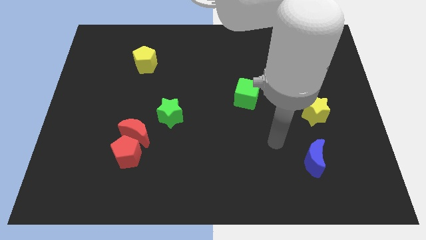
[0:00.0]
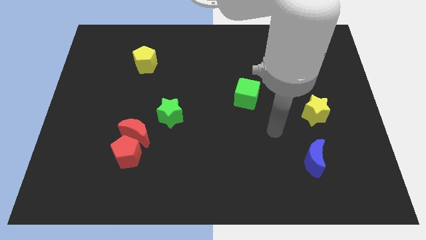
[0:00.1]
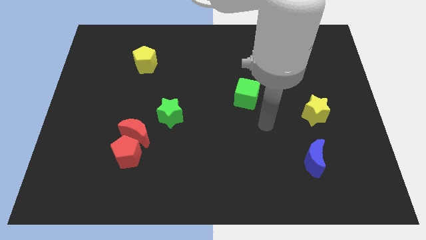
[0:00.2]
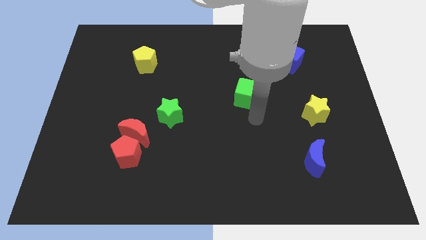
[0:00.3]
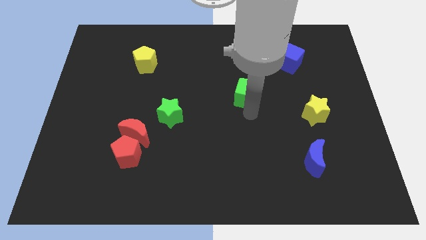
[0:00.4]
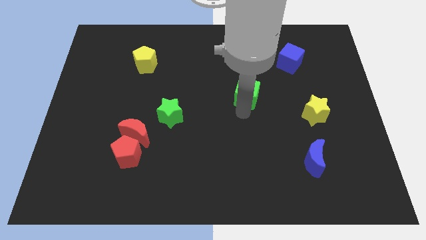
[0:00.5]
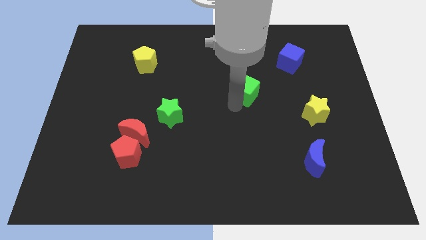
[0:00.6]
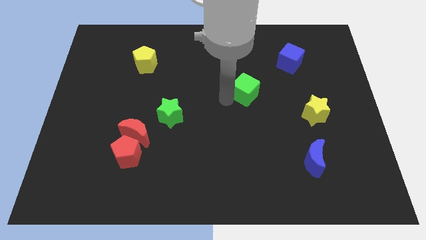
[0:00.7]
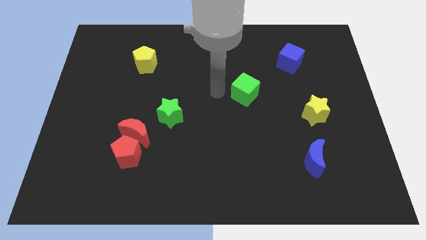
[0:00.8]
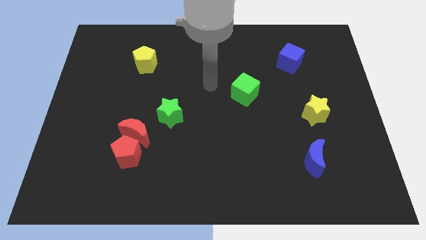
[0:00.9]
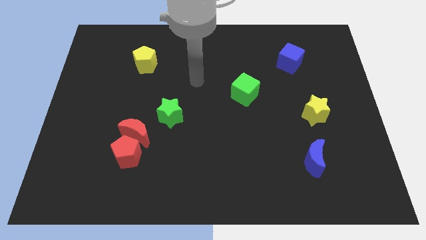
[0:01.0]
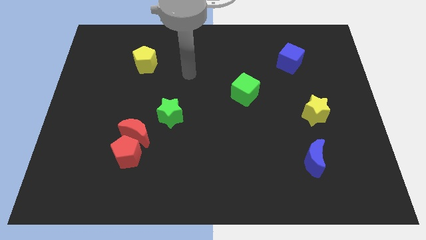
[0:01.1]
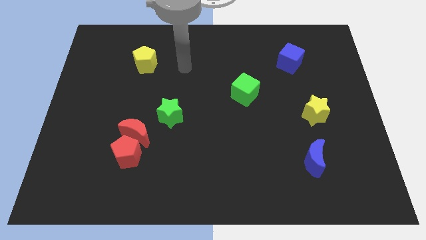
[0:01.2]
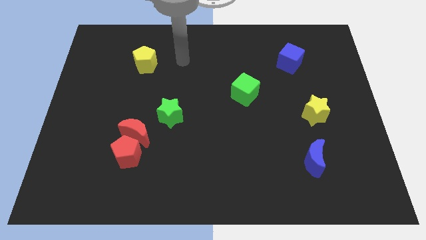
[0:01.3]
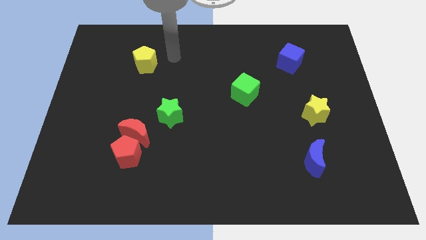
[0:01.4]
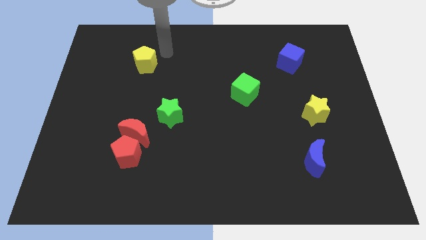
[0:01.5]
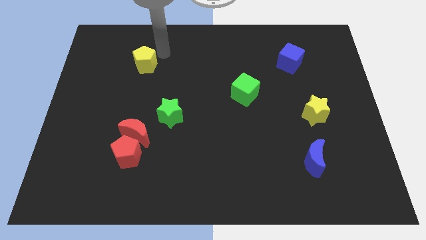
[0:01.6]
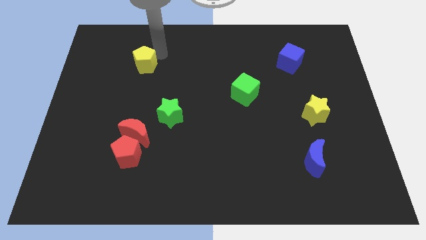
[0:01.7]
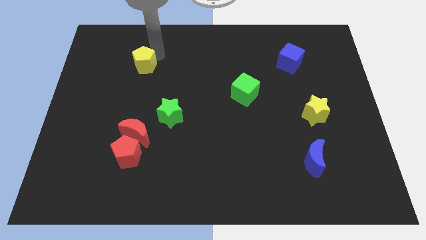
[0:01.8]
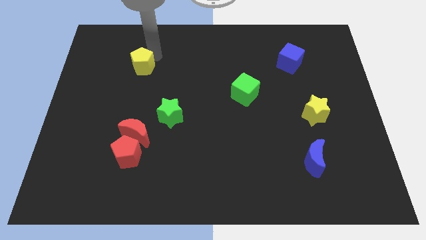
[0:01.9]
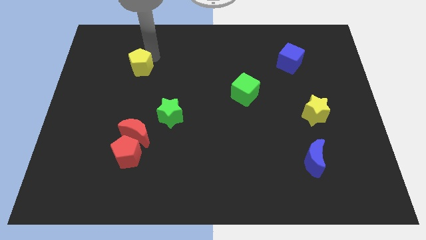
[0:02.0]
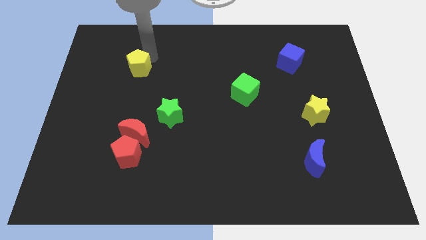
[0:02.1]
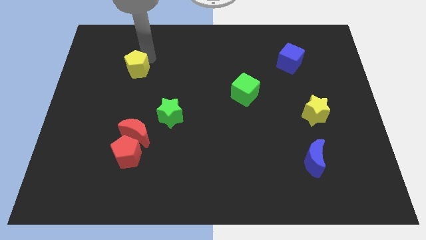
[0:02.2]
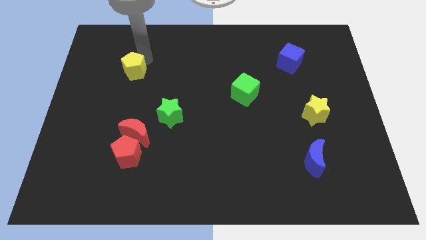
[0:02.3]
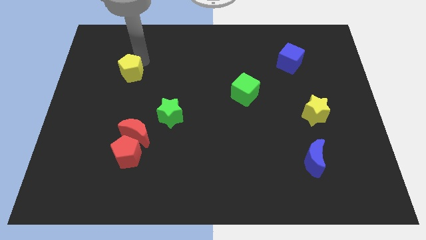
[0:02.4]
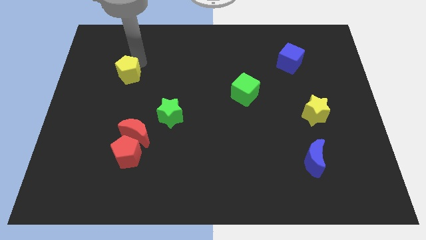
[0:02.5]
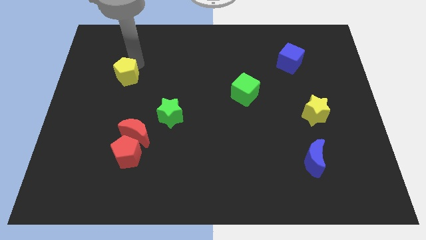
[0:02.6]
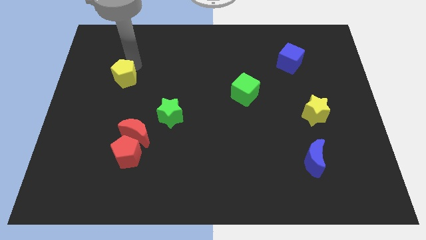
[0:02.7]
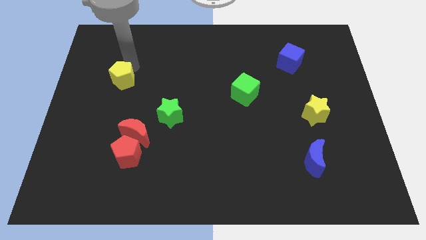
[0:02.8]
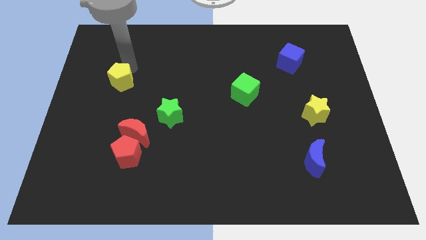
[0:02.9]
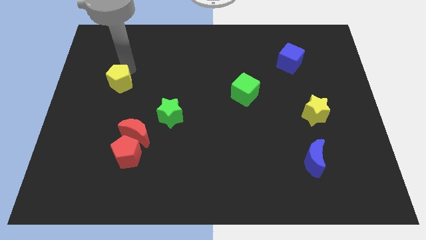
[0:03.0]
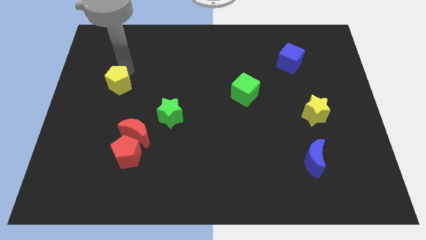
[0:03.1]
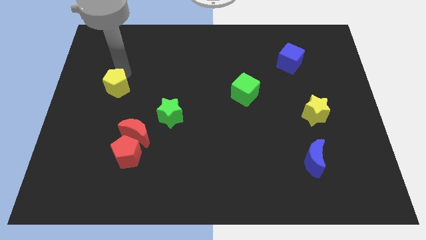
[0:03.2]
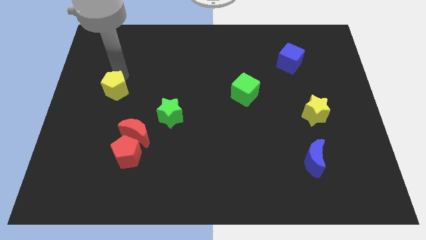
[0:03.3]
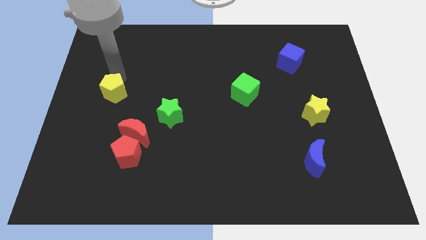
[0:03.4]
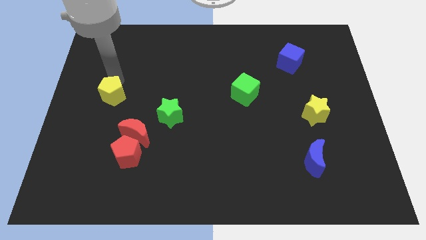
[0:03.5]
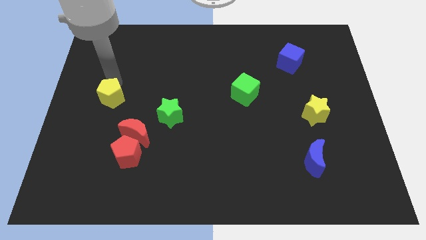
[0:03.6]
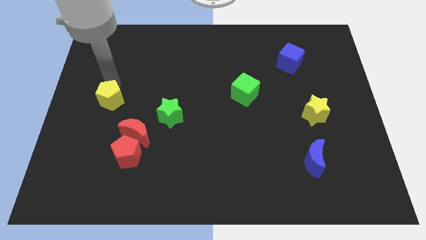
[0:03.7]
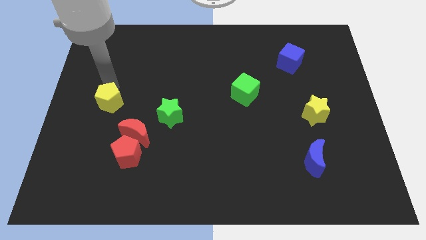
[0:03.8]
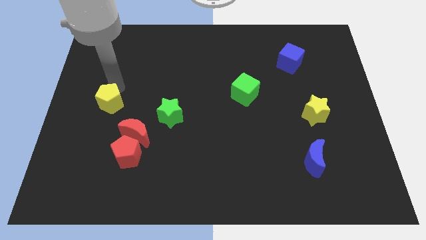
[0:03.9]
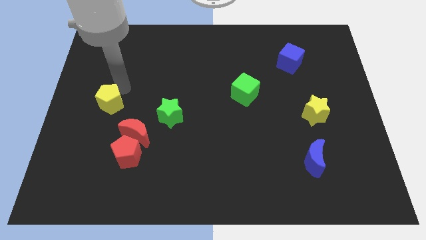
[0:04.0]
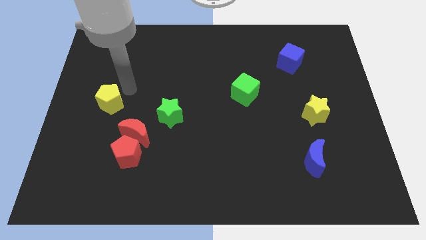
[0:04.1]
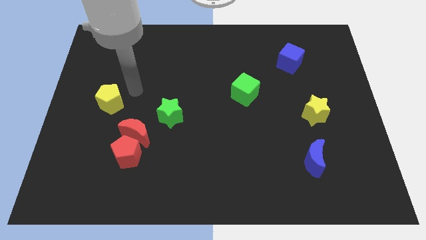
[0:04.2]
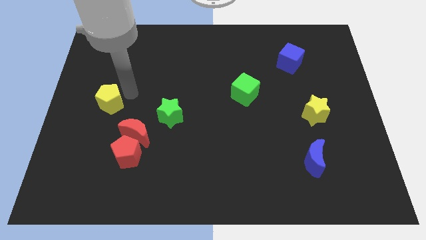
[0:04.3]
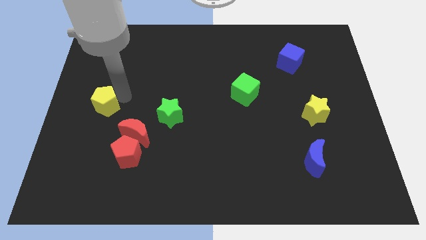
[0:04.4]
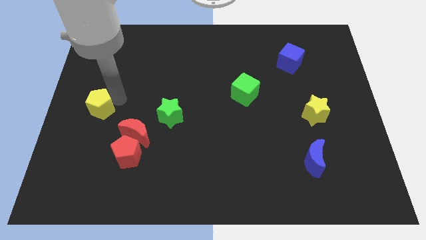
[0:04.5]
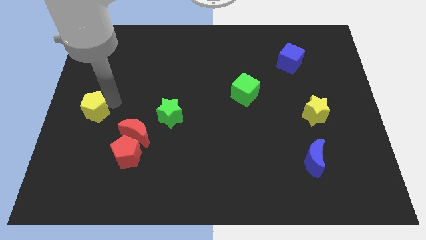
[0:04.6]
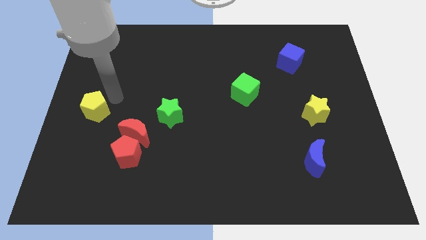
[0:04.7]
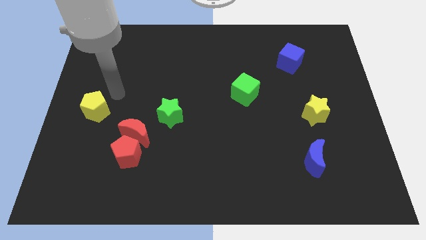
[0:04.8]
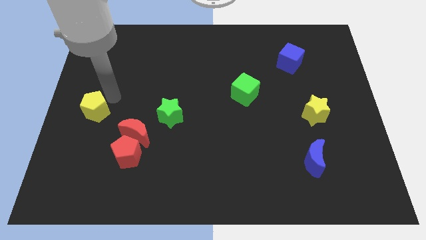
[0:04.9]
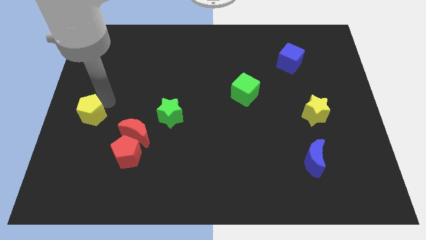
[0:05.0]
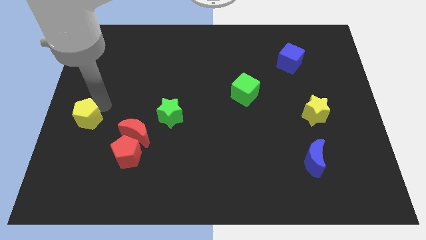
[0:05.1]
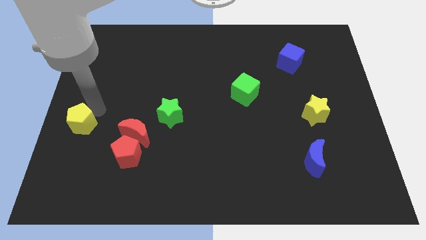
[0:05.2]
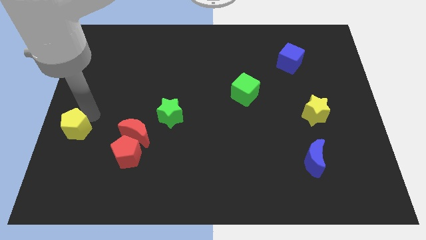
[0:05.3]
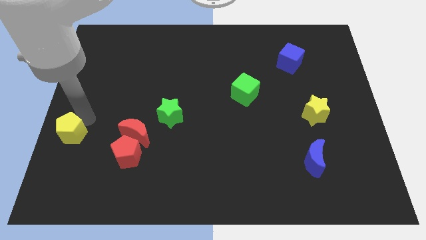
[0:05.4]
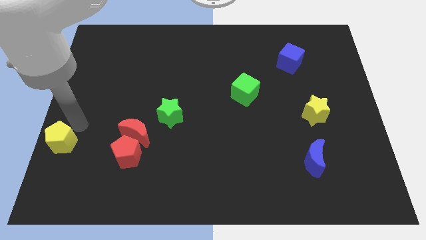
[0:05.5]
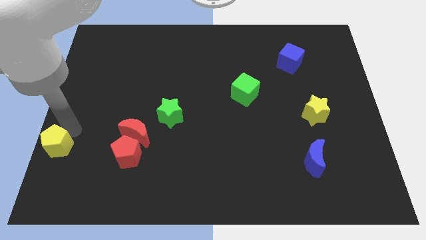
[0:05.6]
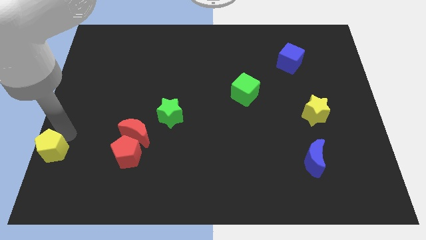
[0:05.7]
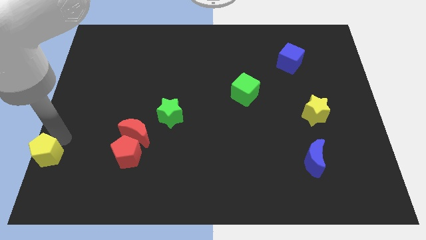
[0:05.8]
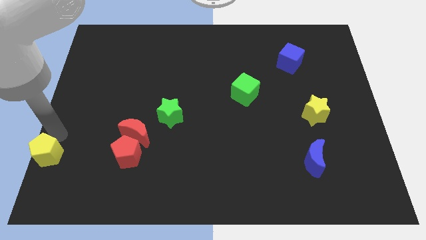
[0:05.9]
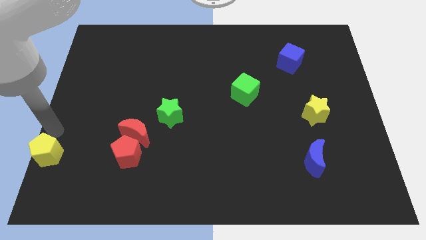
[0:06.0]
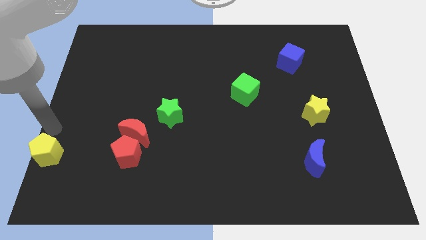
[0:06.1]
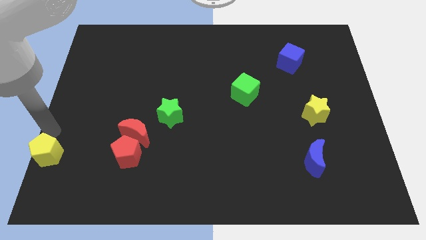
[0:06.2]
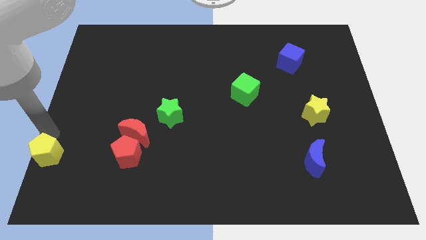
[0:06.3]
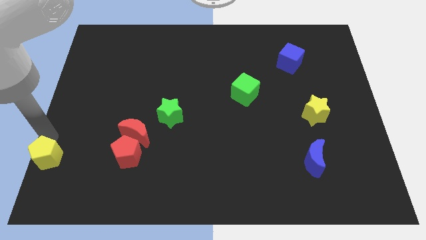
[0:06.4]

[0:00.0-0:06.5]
move the yellow pentagon to the bottom left
